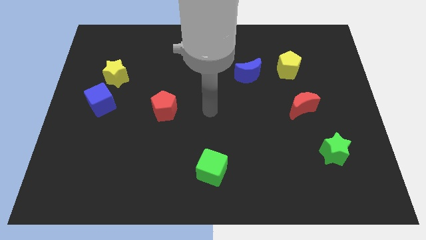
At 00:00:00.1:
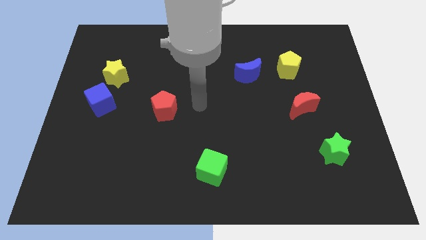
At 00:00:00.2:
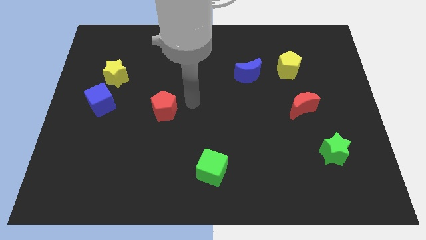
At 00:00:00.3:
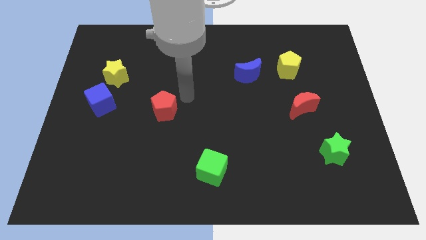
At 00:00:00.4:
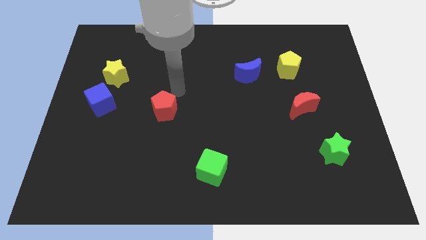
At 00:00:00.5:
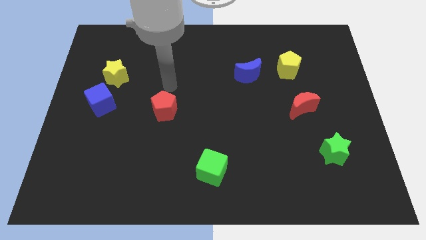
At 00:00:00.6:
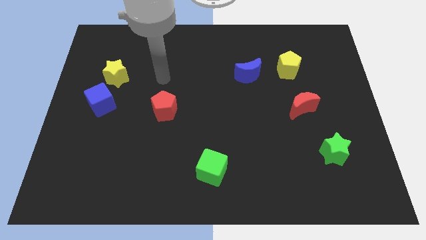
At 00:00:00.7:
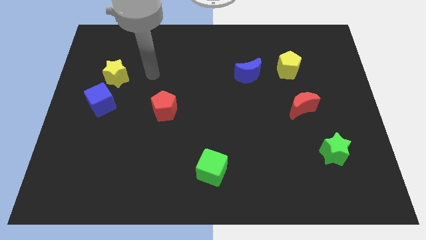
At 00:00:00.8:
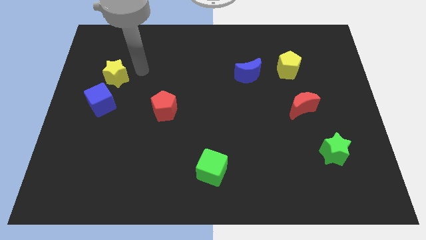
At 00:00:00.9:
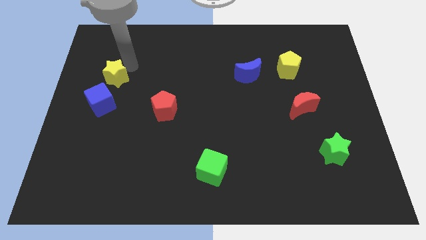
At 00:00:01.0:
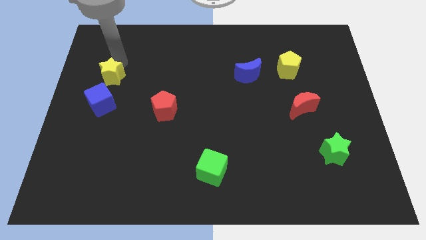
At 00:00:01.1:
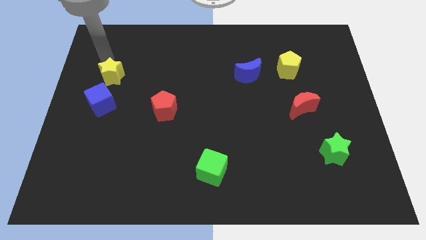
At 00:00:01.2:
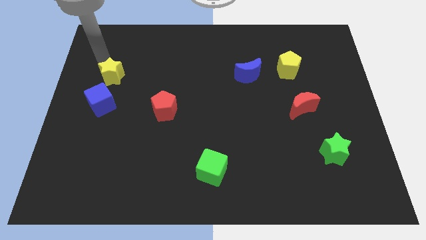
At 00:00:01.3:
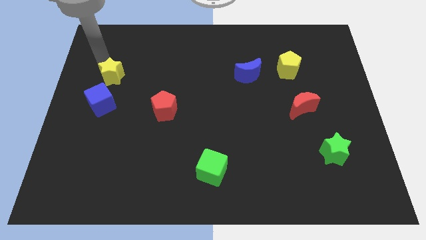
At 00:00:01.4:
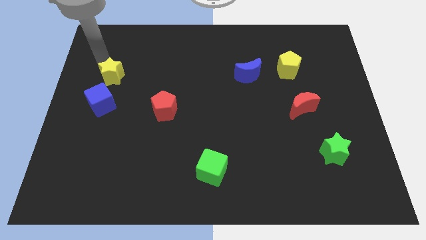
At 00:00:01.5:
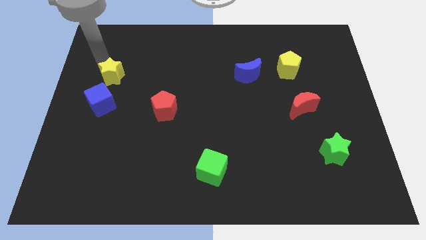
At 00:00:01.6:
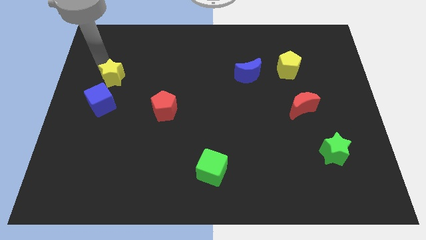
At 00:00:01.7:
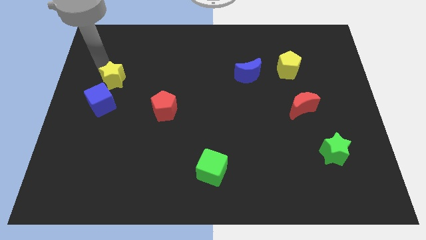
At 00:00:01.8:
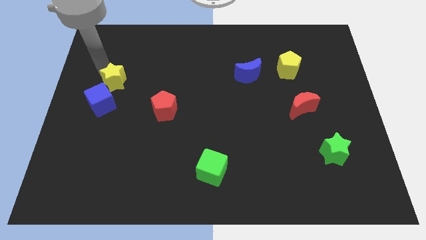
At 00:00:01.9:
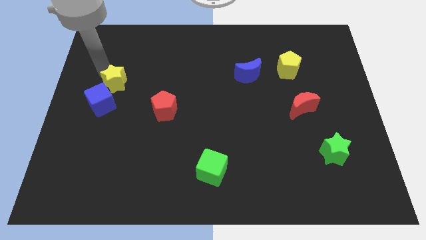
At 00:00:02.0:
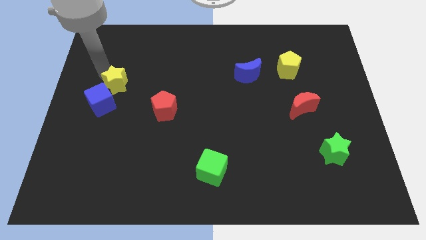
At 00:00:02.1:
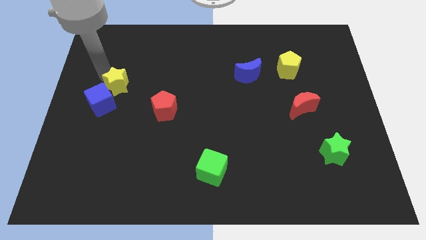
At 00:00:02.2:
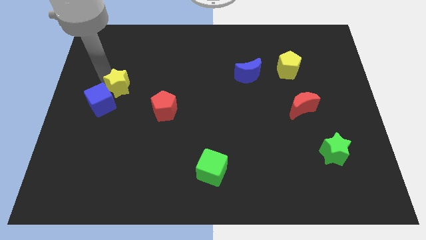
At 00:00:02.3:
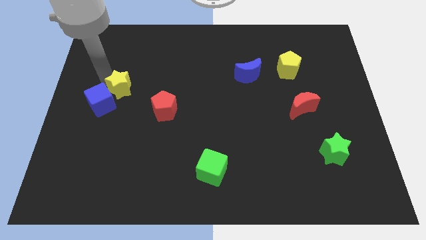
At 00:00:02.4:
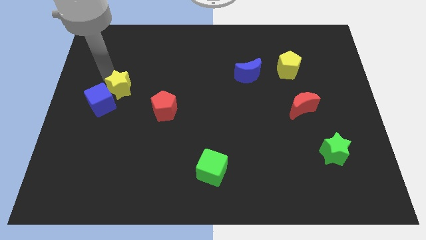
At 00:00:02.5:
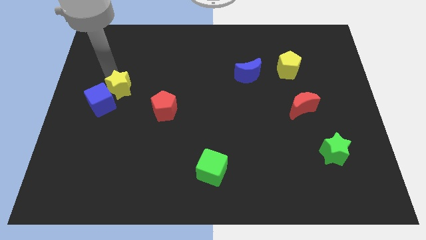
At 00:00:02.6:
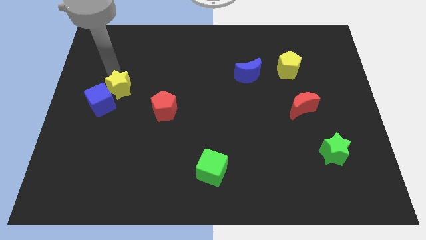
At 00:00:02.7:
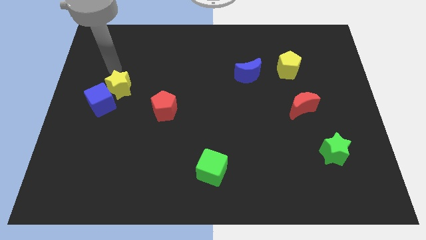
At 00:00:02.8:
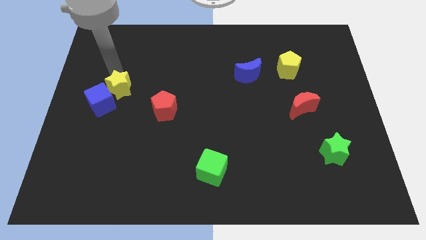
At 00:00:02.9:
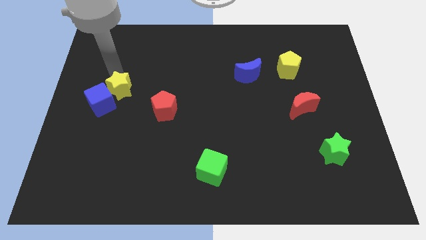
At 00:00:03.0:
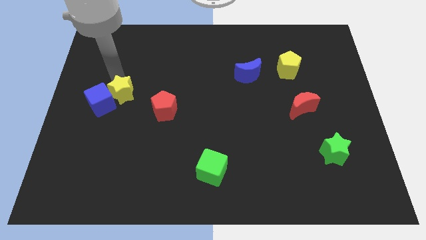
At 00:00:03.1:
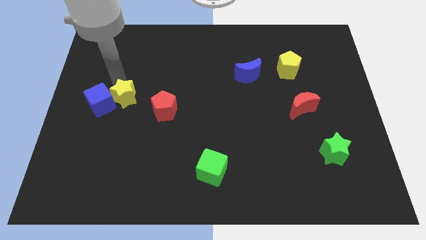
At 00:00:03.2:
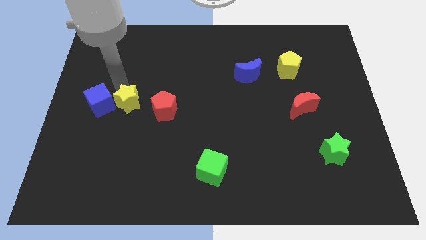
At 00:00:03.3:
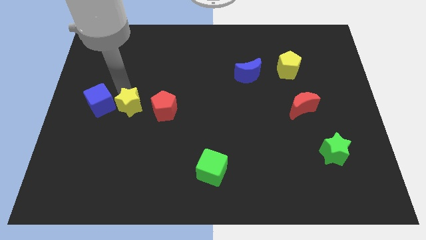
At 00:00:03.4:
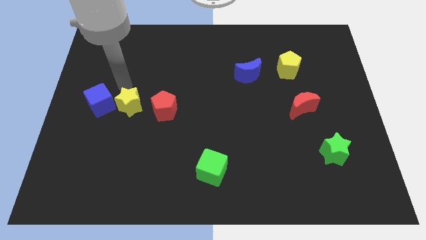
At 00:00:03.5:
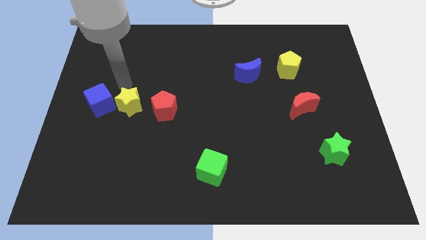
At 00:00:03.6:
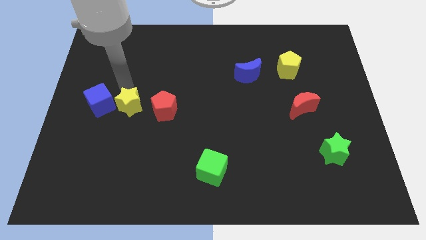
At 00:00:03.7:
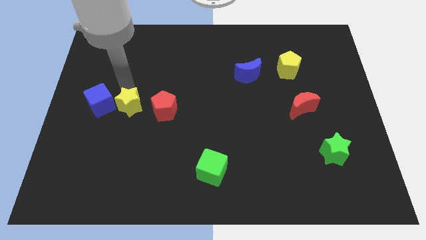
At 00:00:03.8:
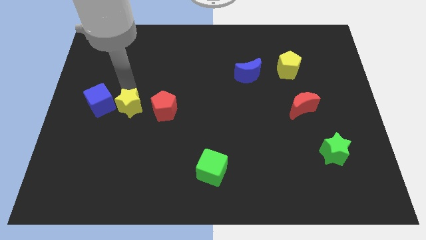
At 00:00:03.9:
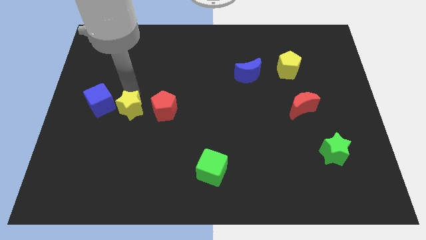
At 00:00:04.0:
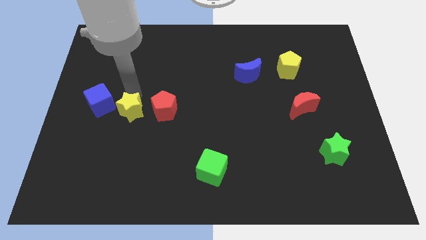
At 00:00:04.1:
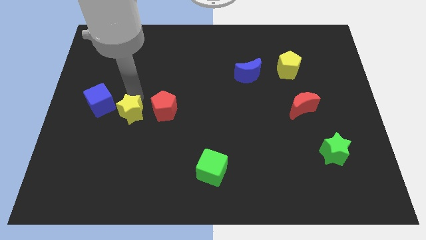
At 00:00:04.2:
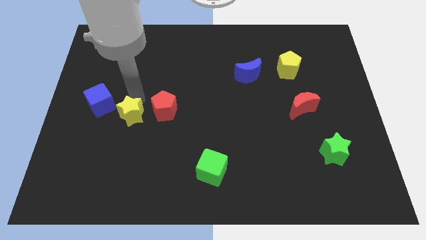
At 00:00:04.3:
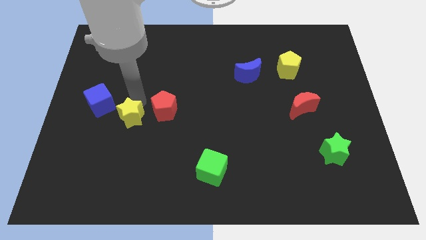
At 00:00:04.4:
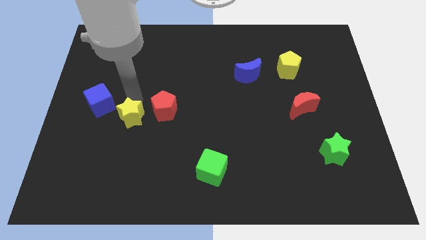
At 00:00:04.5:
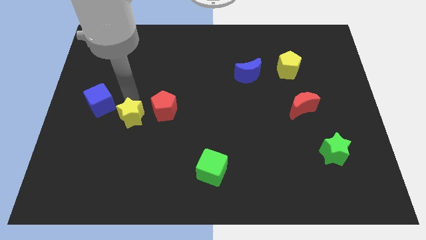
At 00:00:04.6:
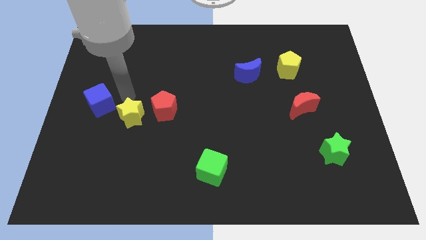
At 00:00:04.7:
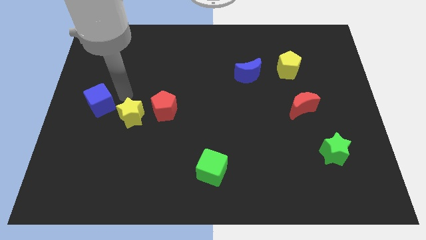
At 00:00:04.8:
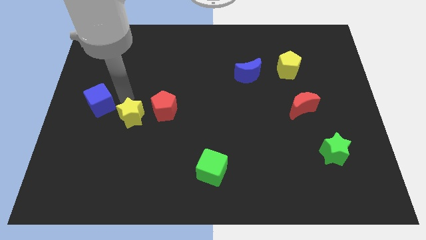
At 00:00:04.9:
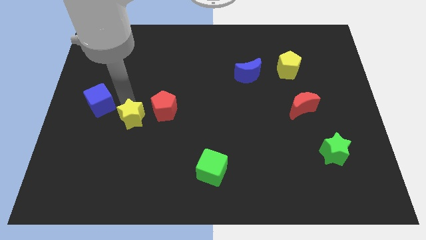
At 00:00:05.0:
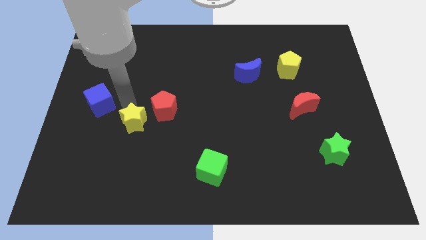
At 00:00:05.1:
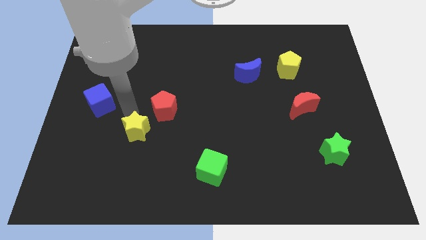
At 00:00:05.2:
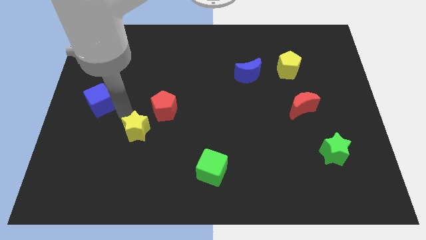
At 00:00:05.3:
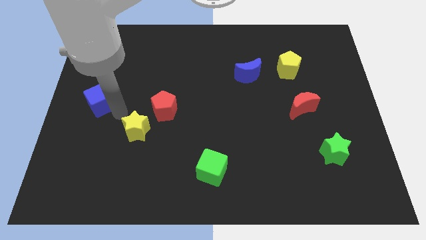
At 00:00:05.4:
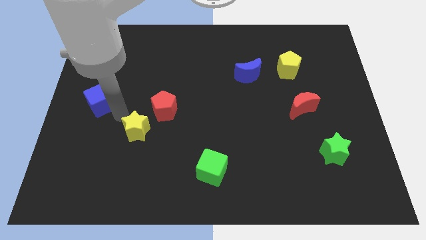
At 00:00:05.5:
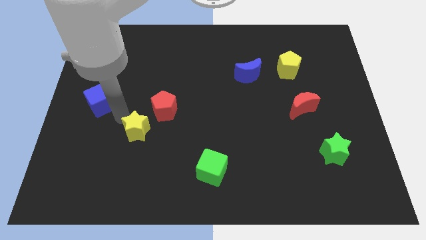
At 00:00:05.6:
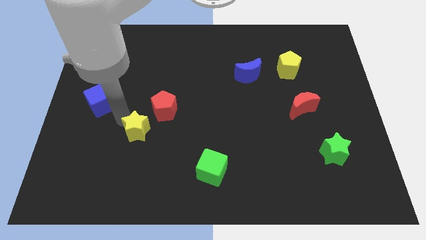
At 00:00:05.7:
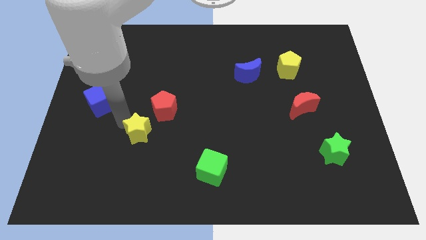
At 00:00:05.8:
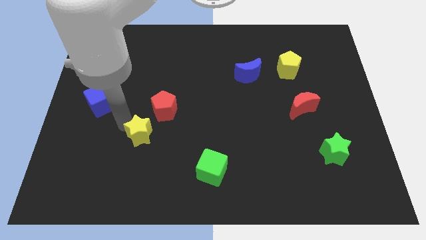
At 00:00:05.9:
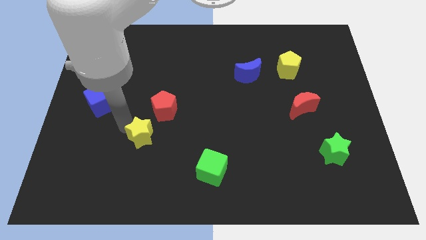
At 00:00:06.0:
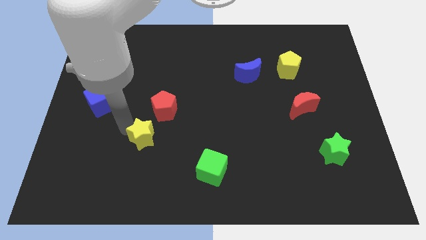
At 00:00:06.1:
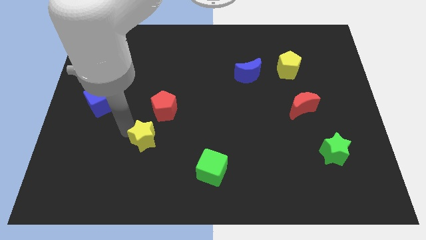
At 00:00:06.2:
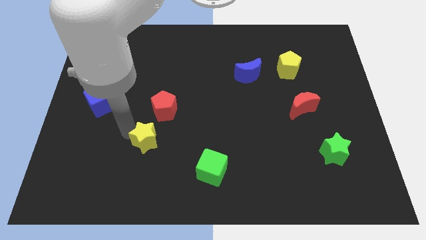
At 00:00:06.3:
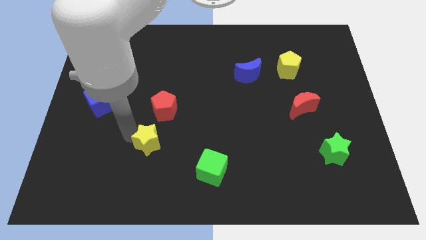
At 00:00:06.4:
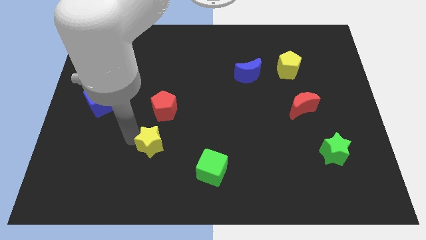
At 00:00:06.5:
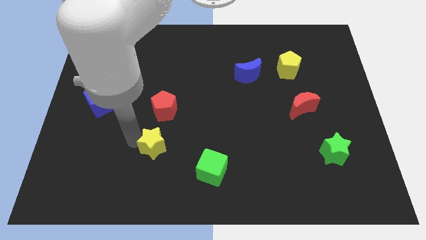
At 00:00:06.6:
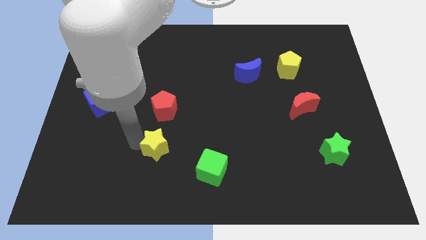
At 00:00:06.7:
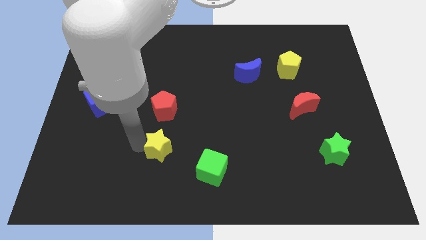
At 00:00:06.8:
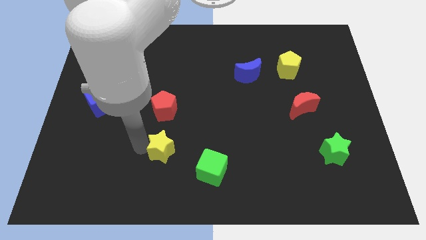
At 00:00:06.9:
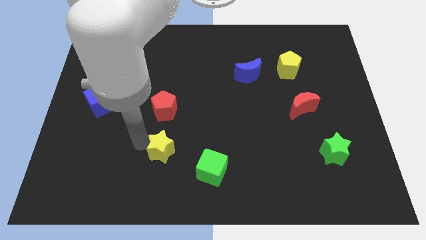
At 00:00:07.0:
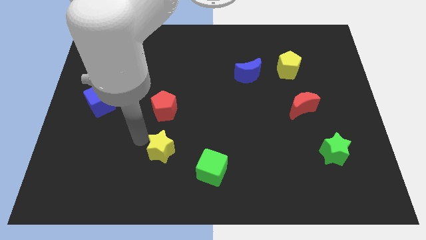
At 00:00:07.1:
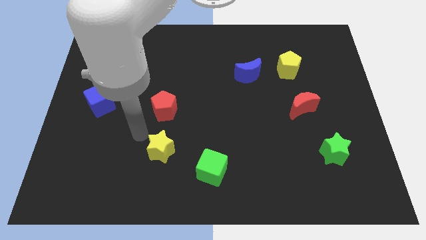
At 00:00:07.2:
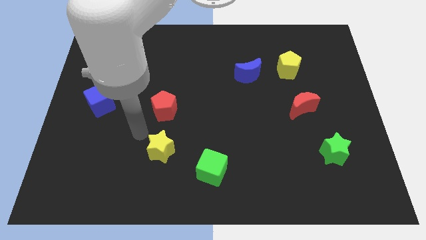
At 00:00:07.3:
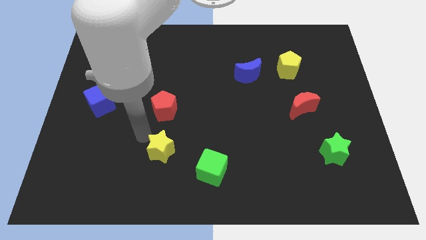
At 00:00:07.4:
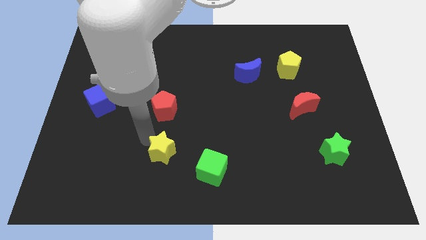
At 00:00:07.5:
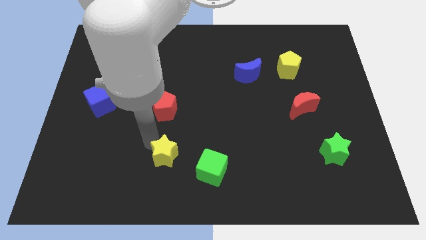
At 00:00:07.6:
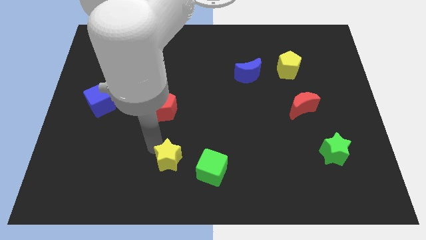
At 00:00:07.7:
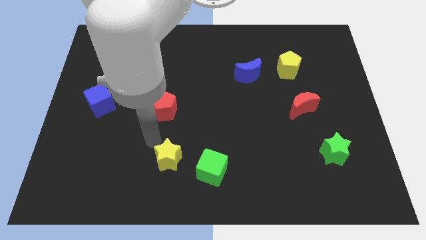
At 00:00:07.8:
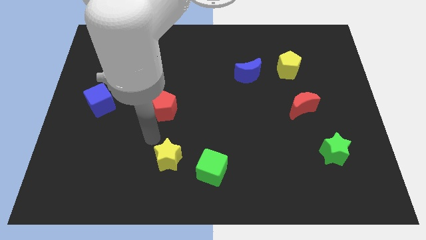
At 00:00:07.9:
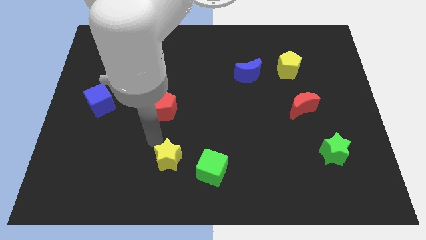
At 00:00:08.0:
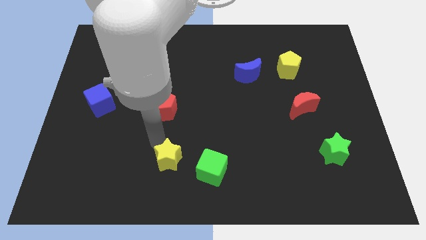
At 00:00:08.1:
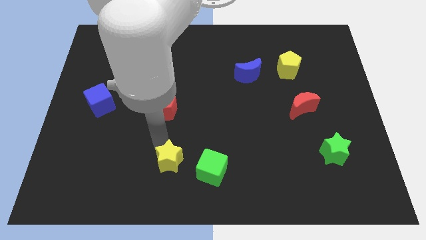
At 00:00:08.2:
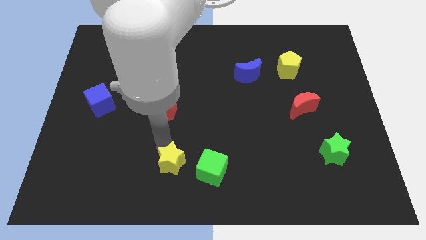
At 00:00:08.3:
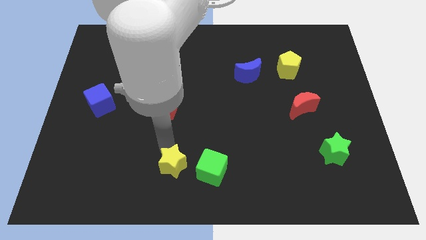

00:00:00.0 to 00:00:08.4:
move the yellow star to the bottom side
